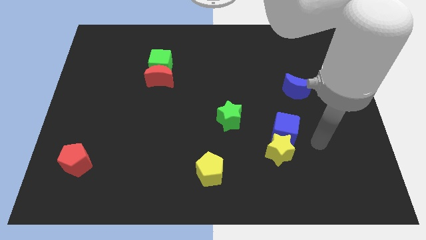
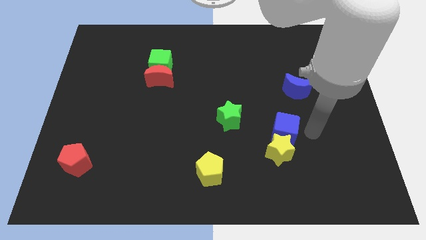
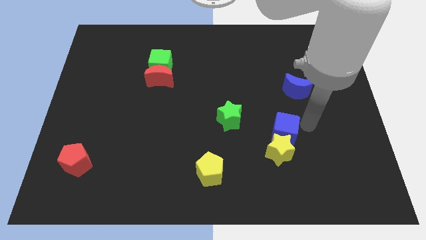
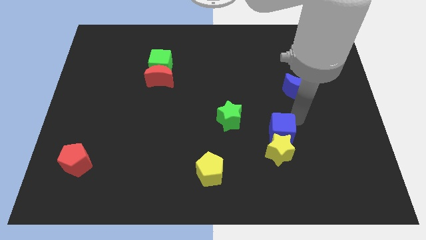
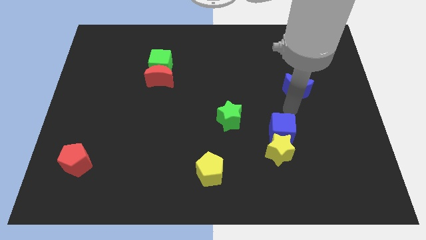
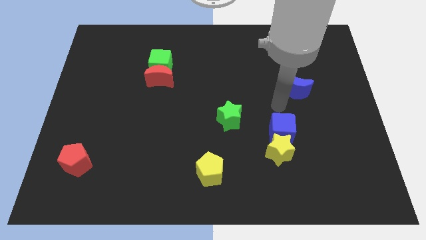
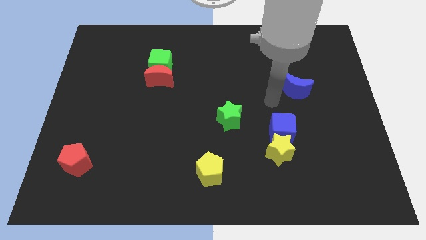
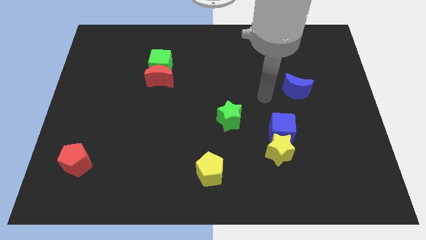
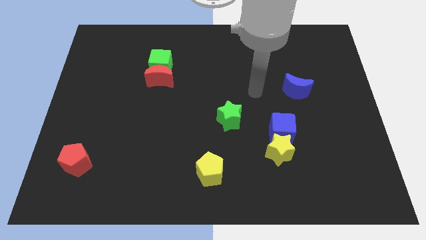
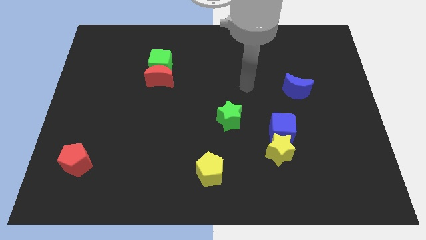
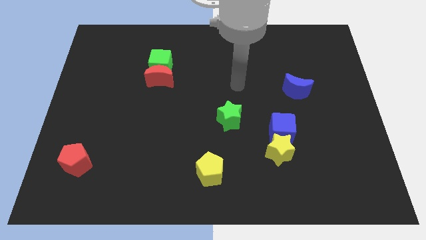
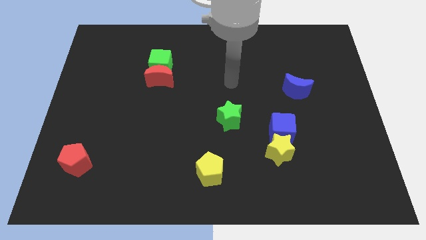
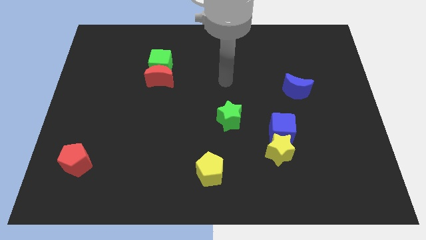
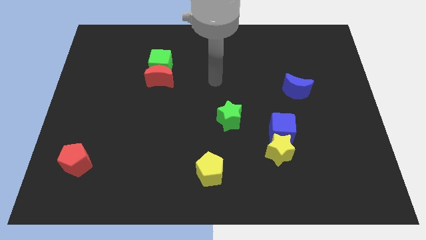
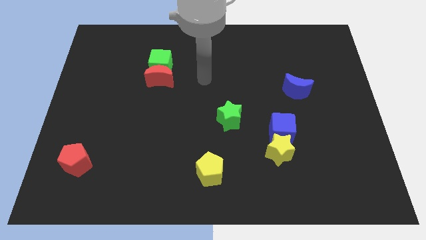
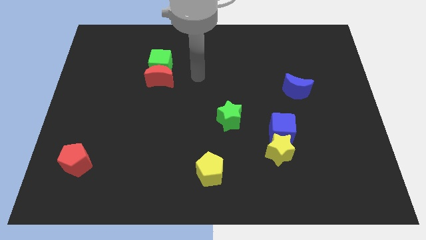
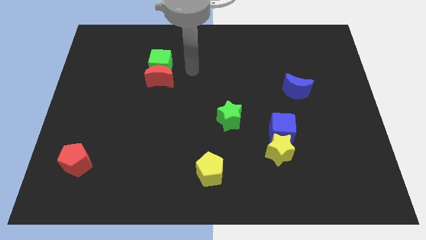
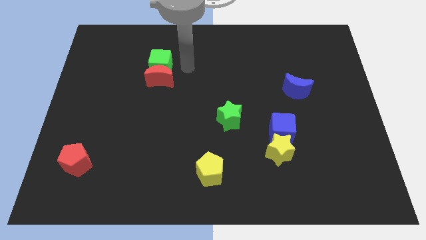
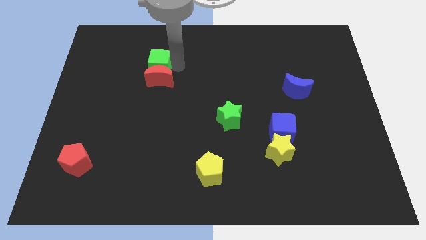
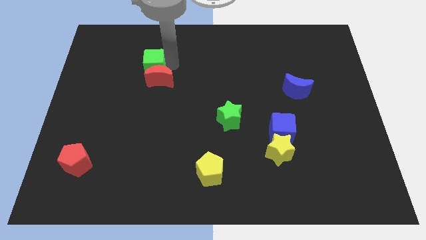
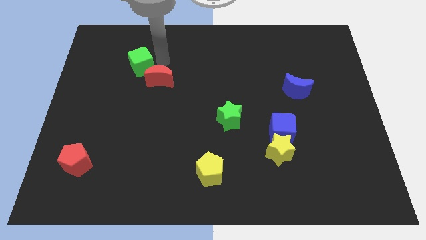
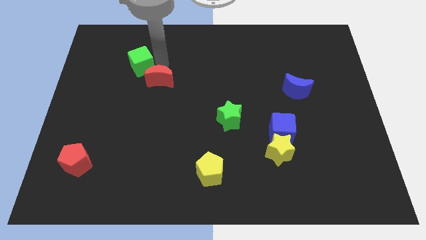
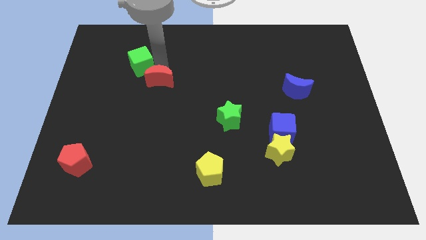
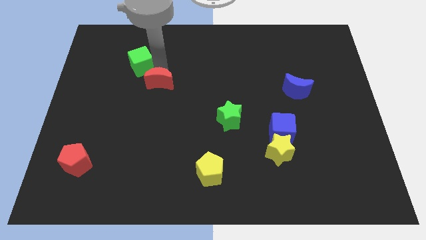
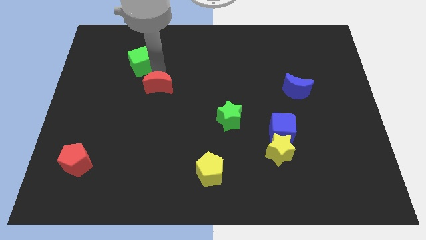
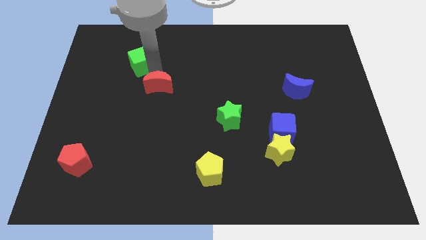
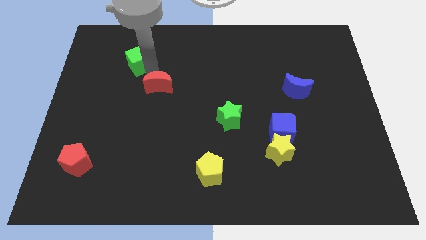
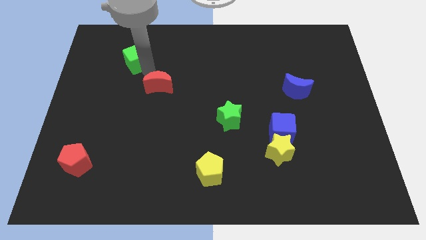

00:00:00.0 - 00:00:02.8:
separate the red moon from the green cube

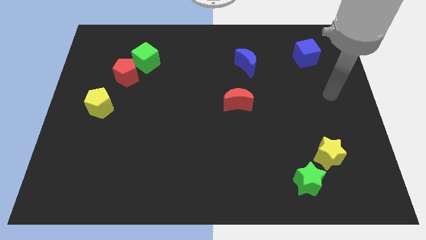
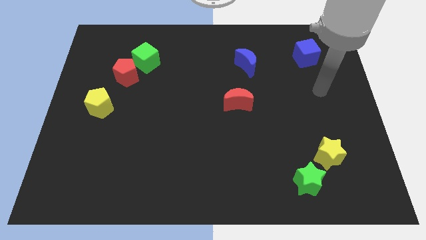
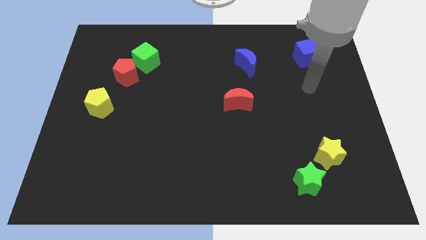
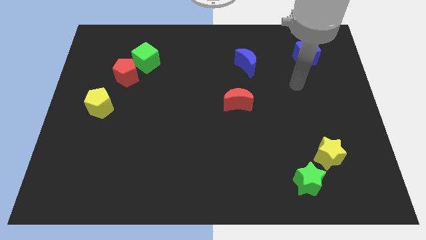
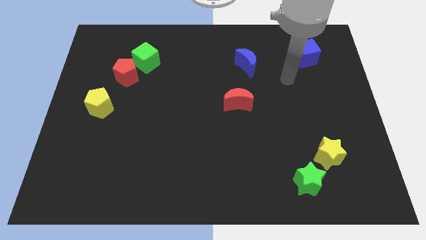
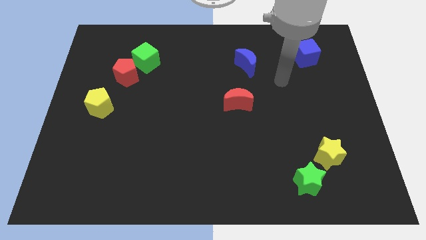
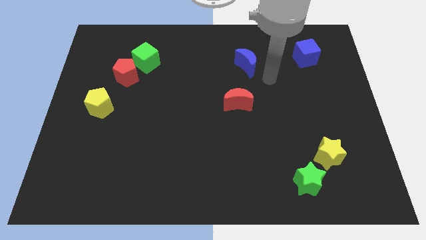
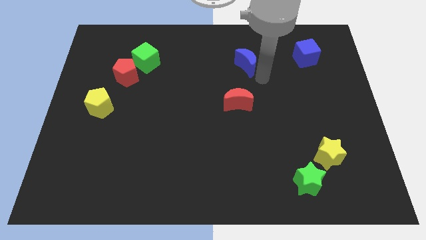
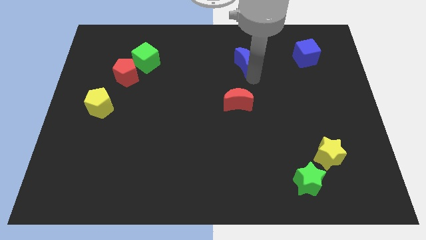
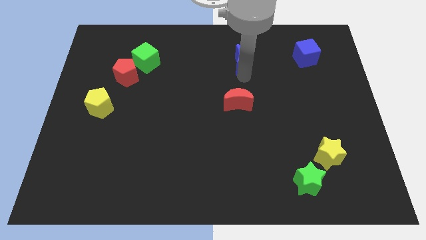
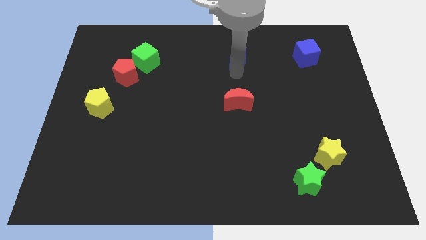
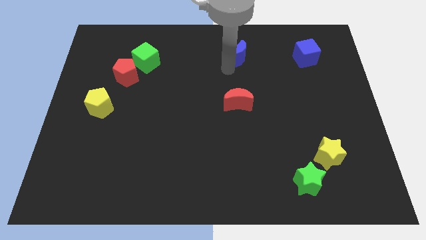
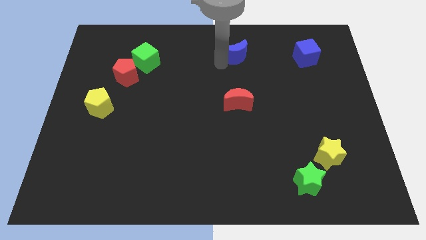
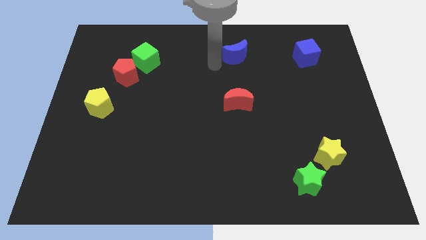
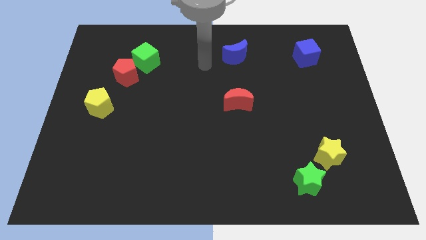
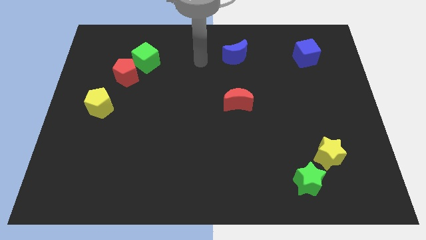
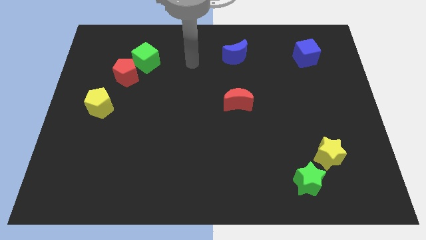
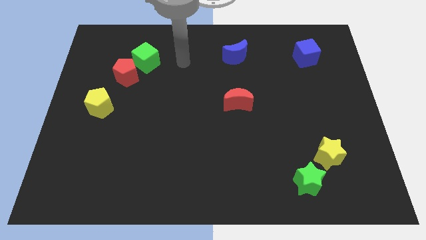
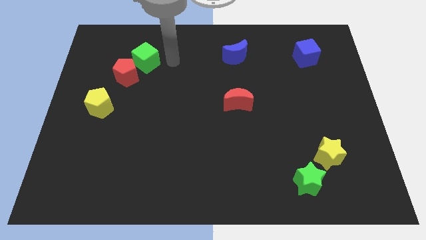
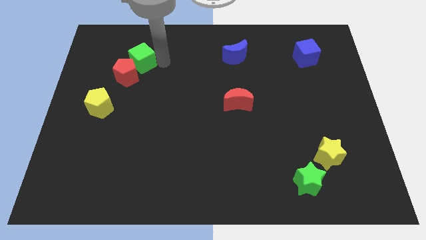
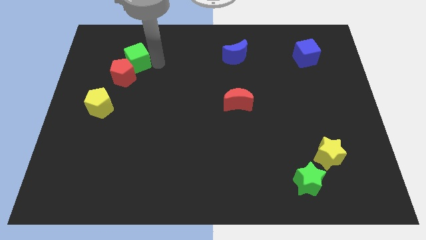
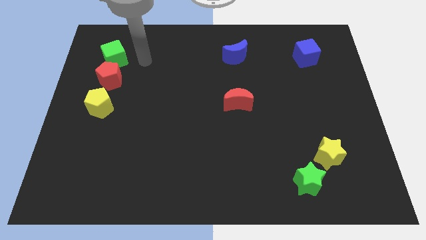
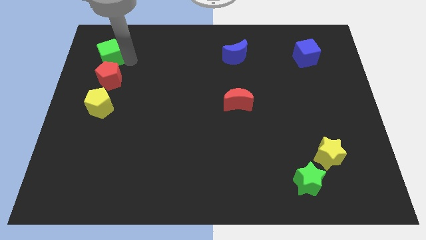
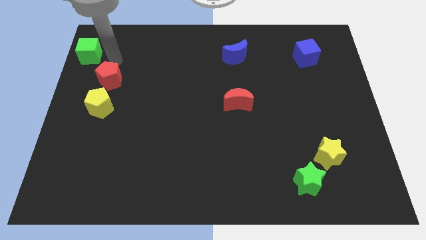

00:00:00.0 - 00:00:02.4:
separate the red pentagon from the green cube

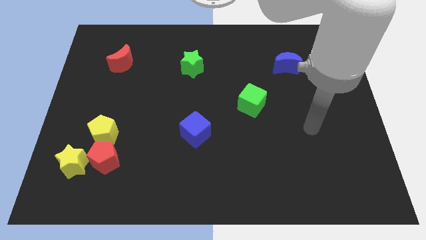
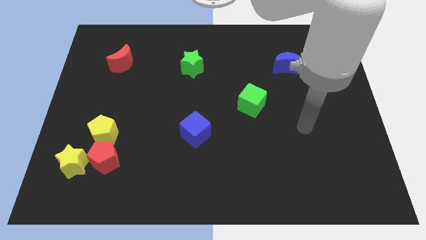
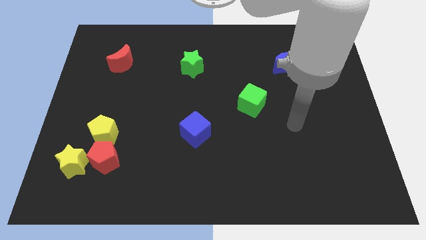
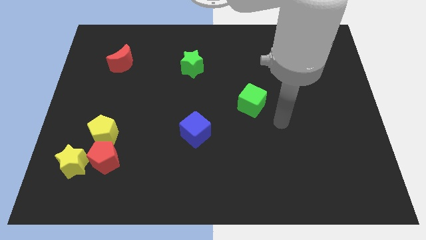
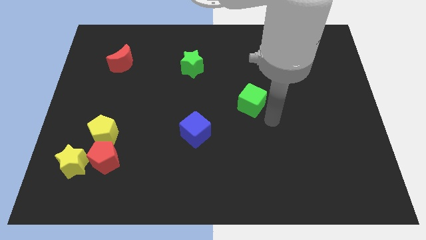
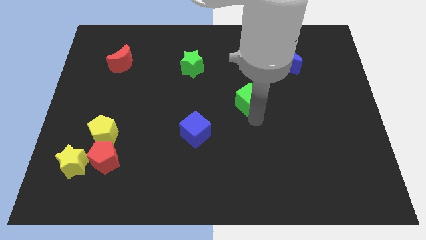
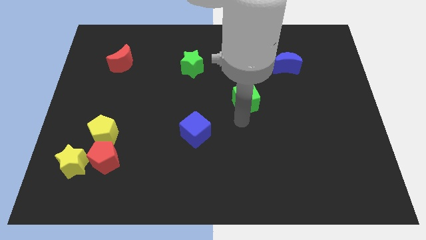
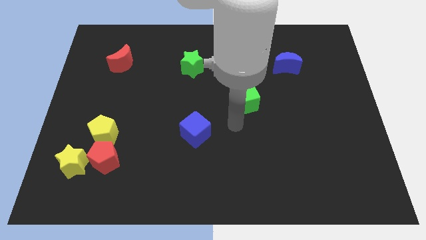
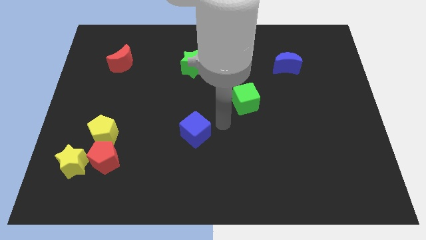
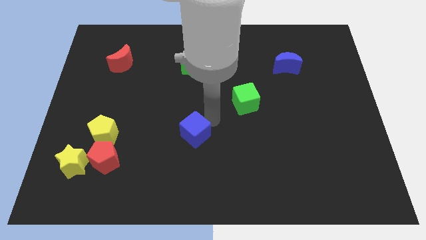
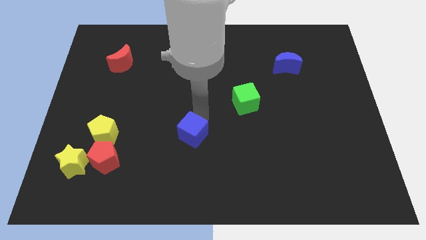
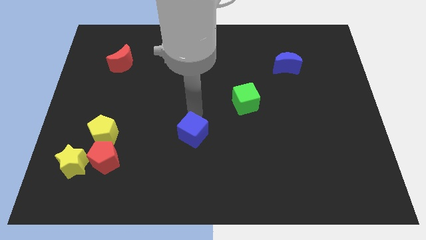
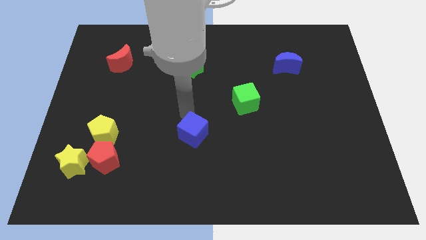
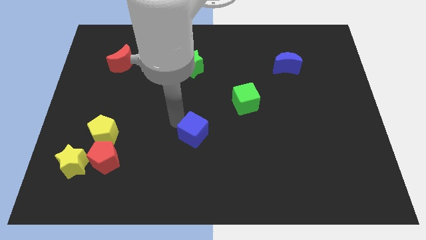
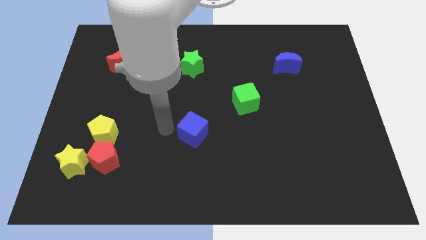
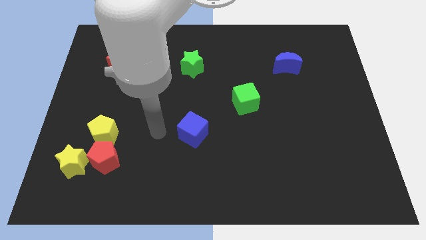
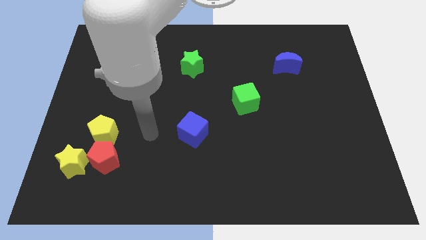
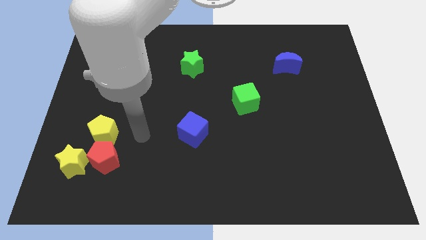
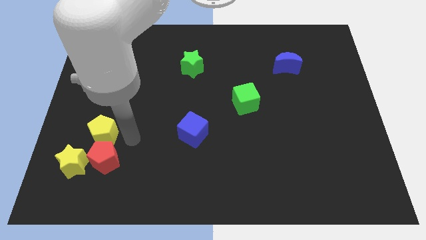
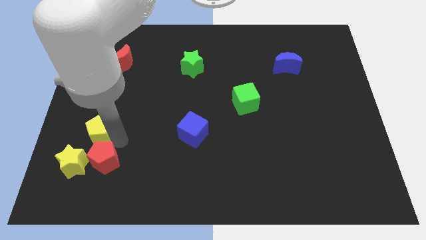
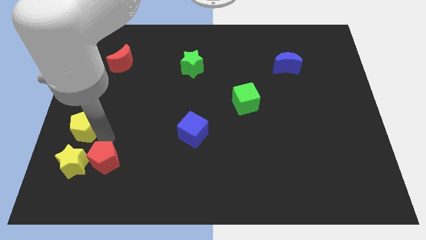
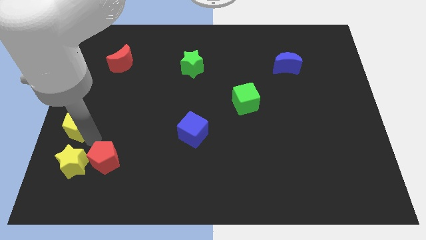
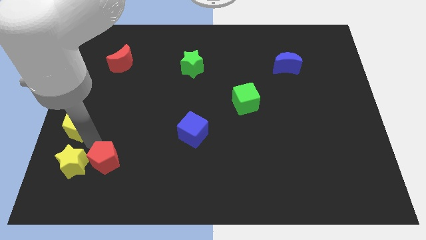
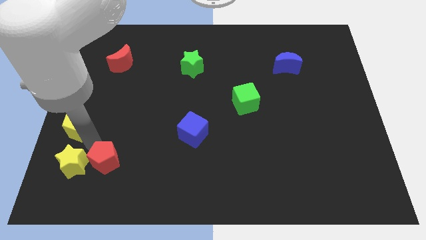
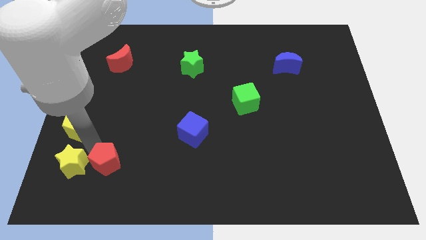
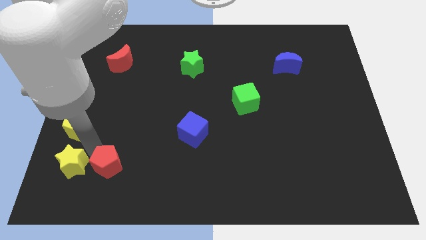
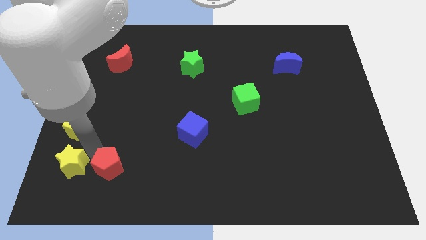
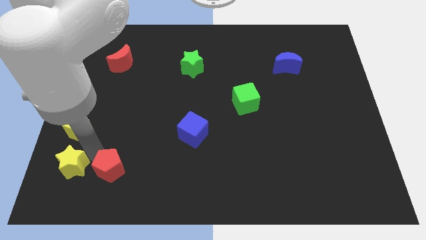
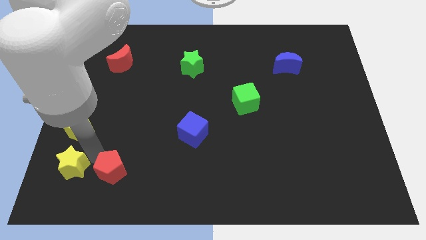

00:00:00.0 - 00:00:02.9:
move the red pentagon away from the yellow pentagon and yellow star

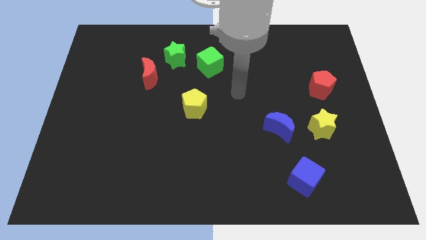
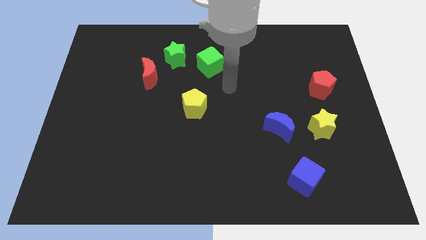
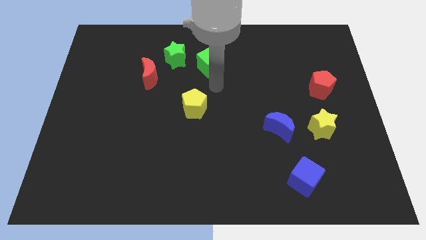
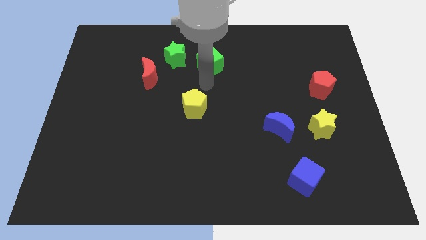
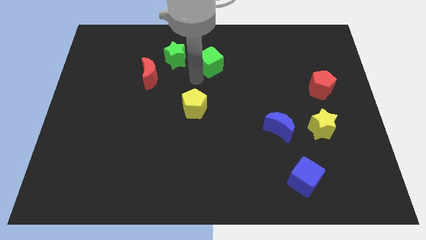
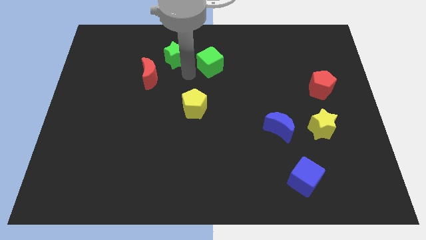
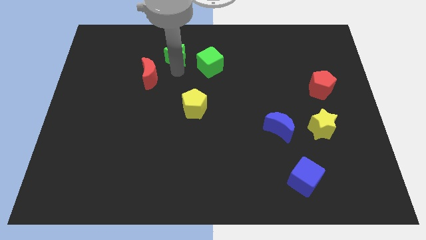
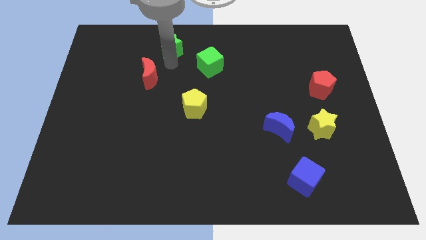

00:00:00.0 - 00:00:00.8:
pull the red moon apart from the green star

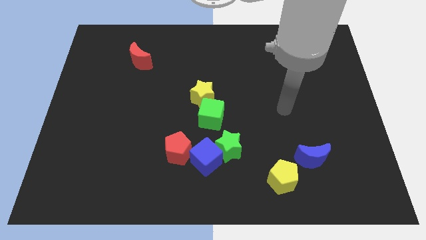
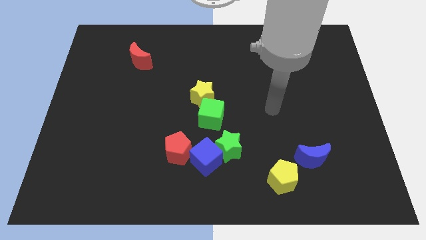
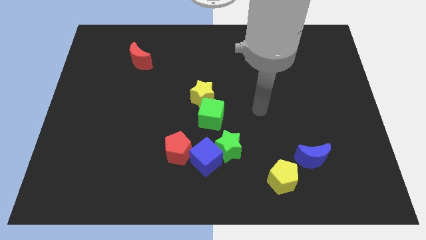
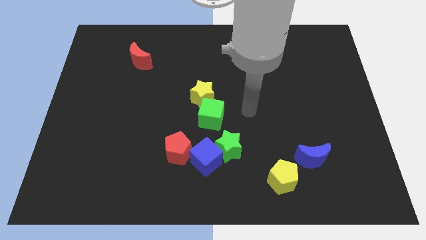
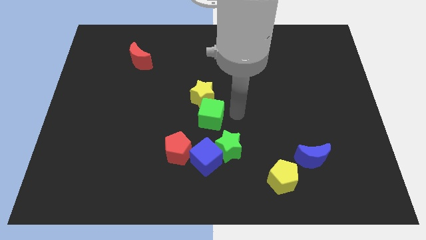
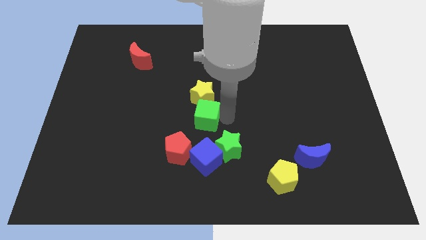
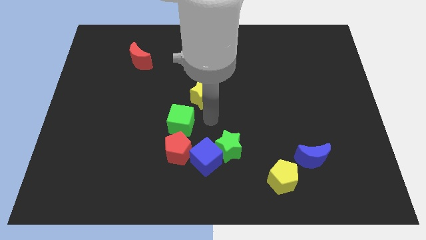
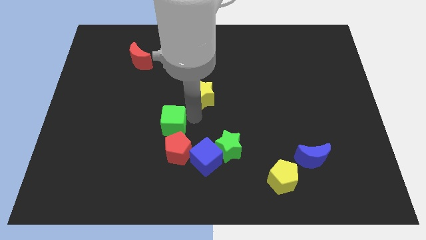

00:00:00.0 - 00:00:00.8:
separate the yellow star from the green cube
